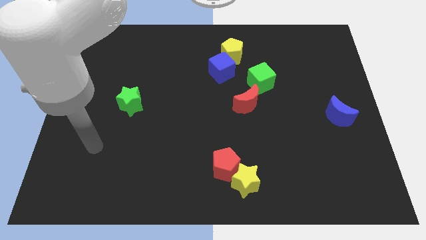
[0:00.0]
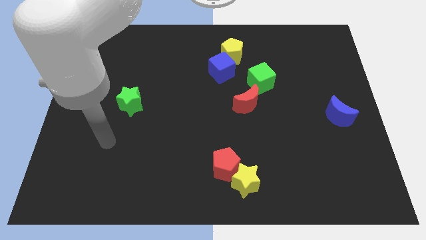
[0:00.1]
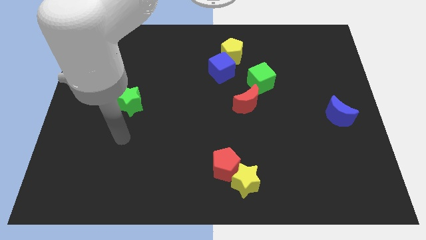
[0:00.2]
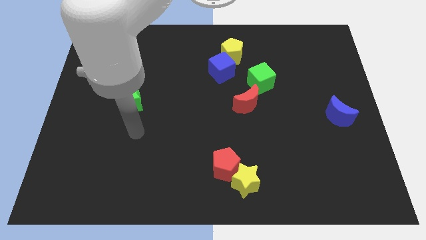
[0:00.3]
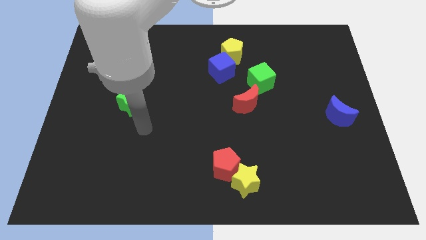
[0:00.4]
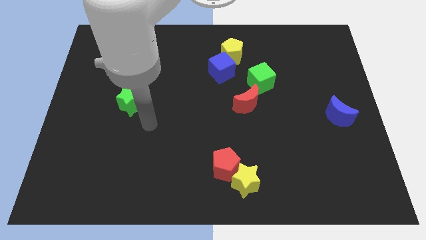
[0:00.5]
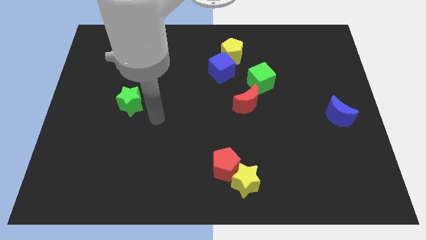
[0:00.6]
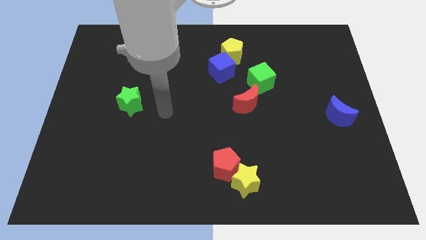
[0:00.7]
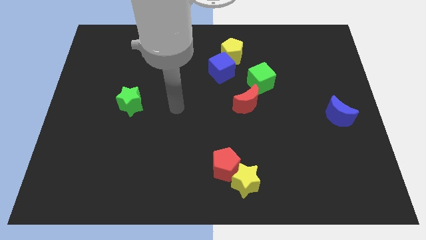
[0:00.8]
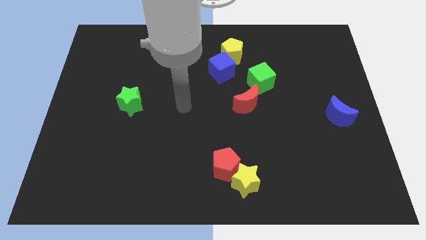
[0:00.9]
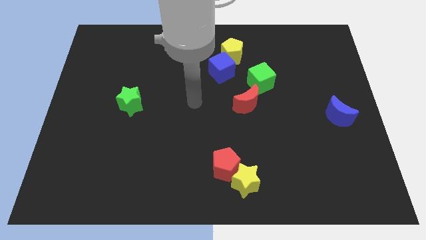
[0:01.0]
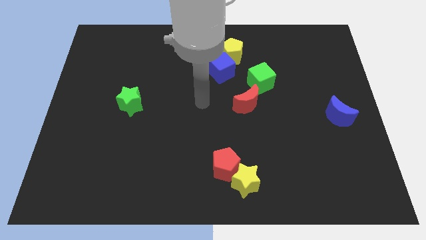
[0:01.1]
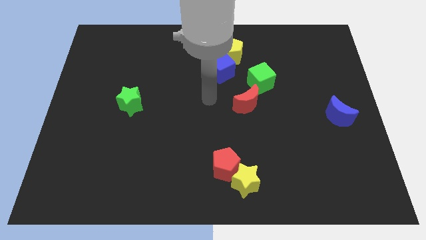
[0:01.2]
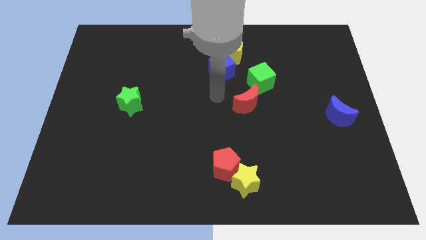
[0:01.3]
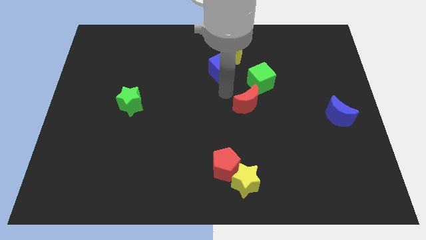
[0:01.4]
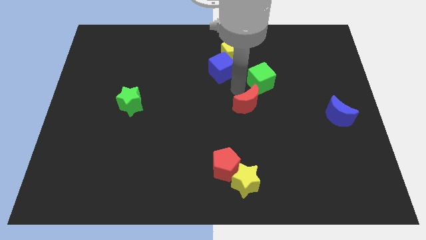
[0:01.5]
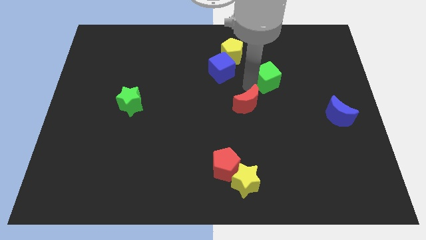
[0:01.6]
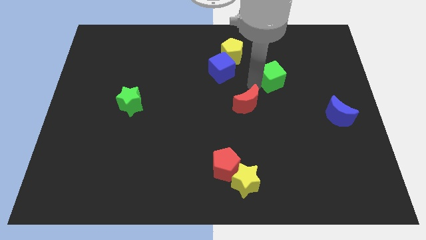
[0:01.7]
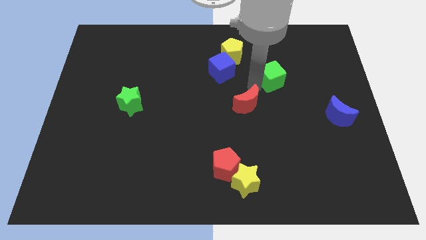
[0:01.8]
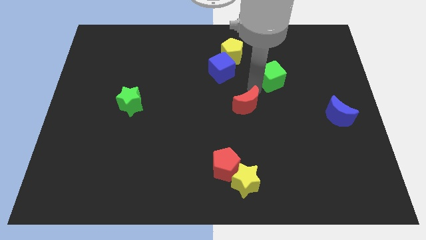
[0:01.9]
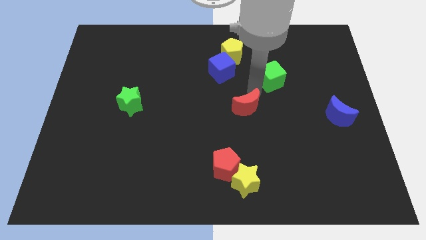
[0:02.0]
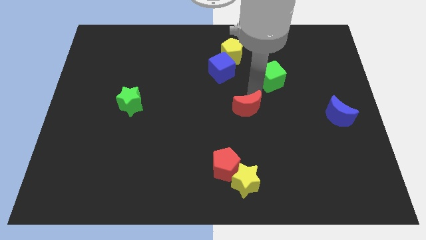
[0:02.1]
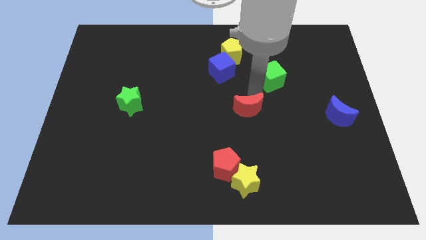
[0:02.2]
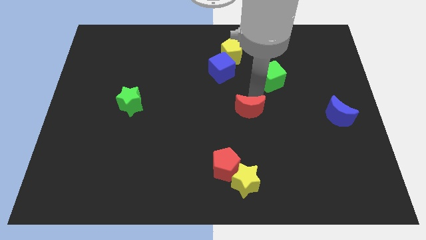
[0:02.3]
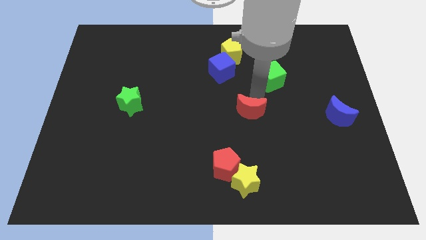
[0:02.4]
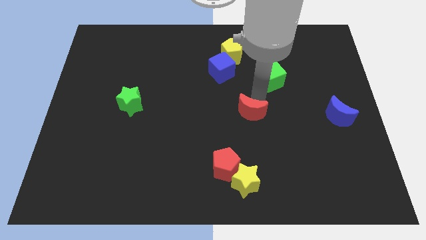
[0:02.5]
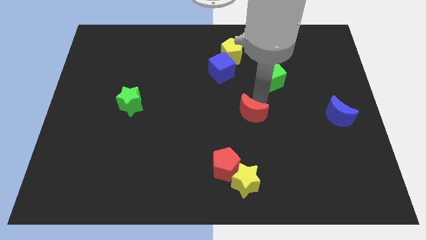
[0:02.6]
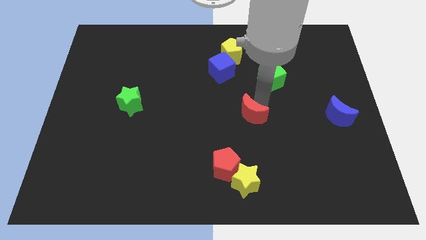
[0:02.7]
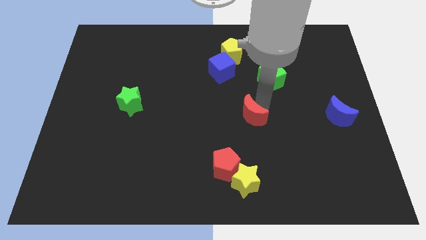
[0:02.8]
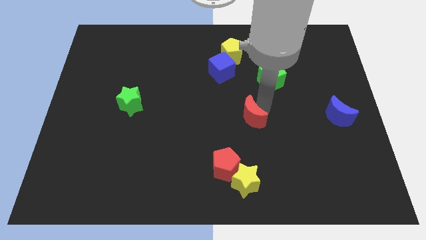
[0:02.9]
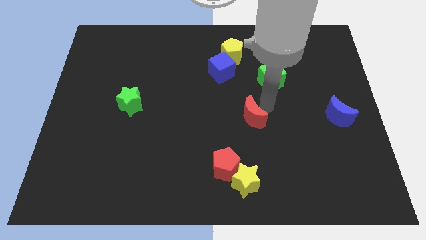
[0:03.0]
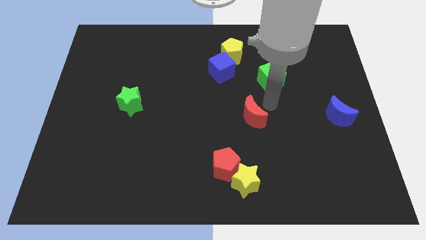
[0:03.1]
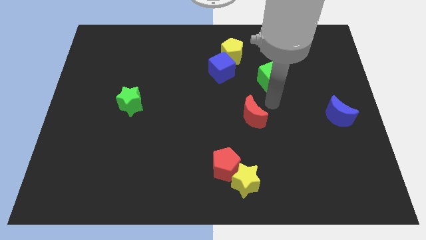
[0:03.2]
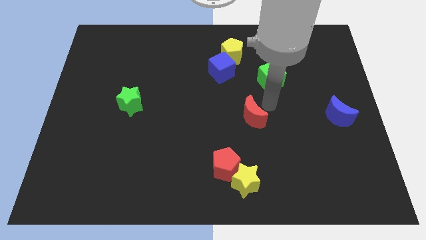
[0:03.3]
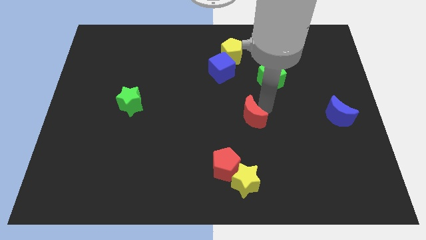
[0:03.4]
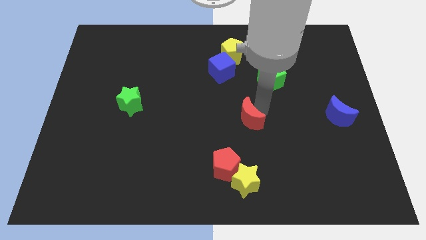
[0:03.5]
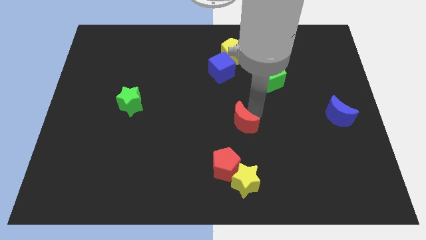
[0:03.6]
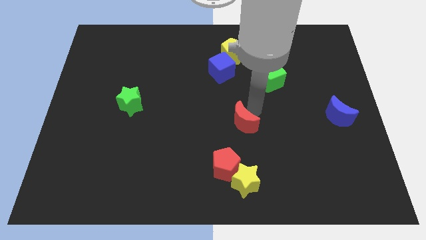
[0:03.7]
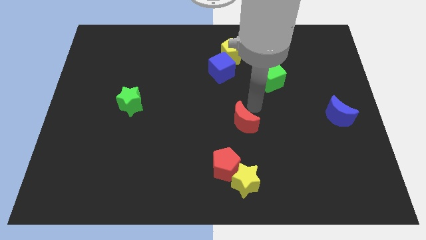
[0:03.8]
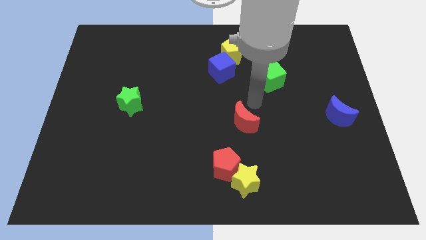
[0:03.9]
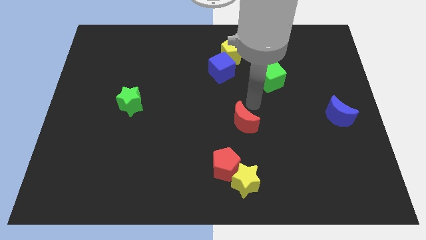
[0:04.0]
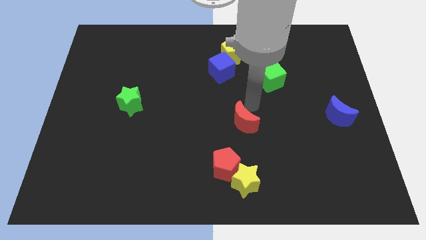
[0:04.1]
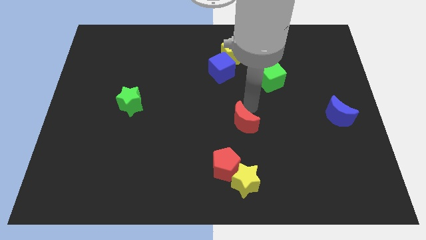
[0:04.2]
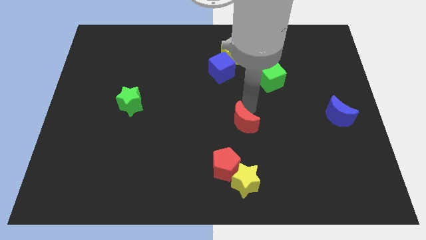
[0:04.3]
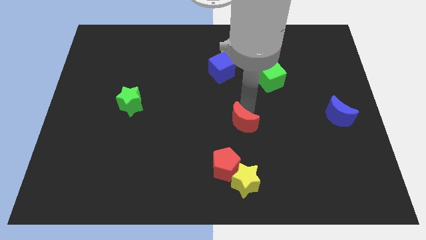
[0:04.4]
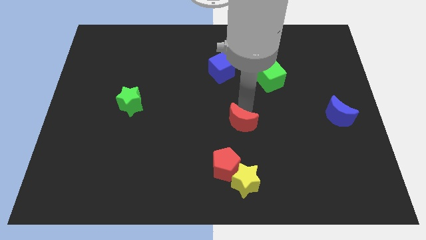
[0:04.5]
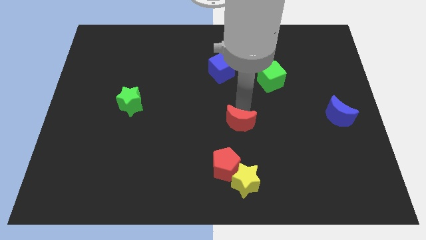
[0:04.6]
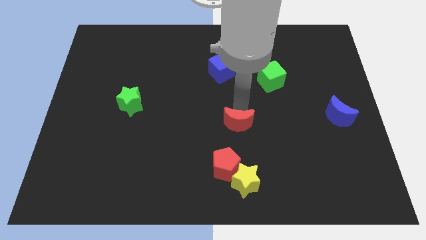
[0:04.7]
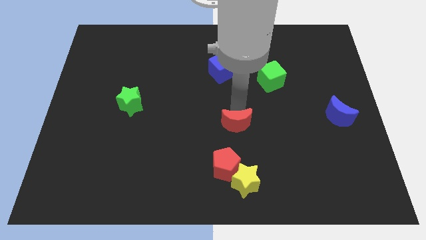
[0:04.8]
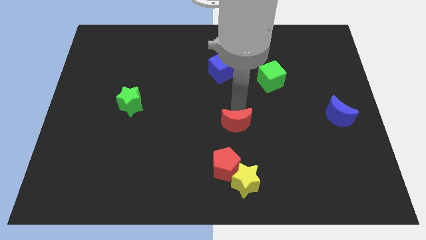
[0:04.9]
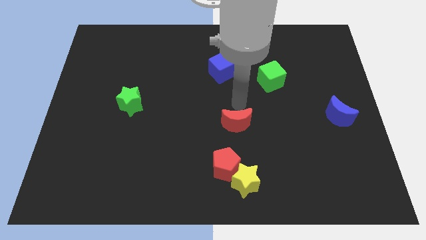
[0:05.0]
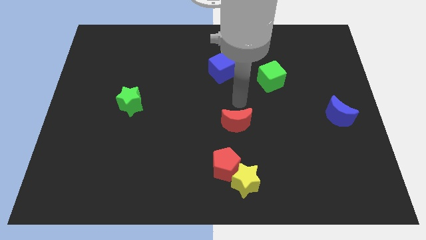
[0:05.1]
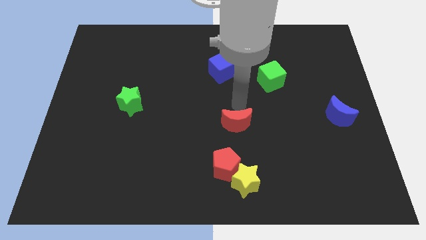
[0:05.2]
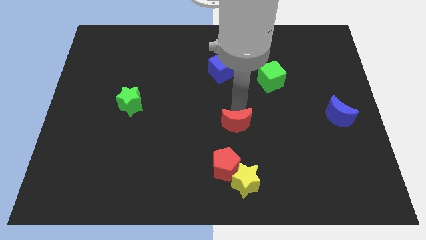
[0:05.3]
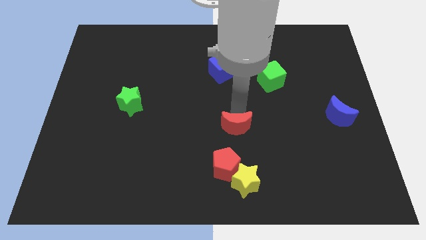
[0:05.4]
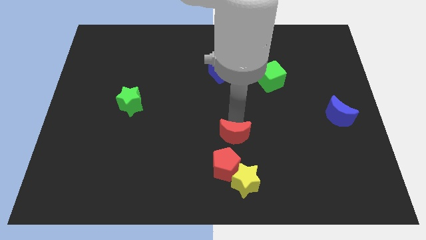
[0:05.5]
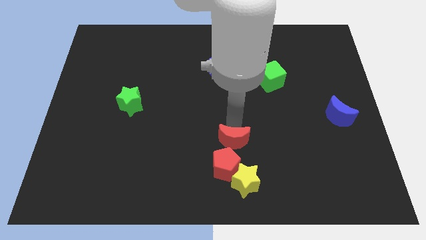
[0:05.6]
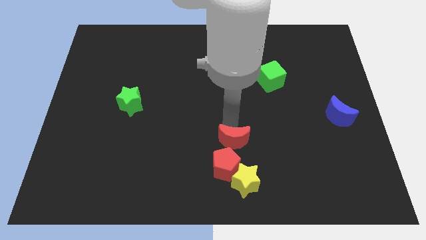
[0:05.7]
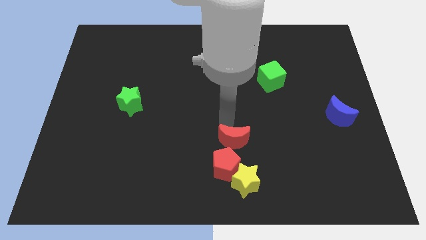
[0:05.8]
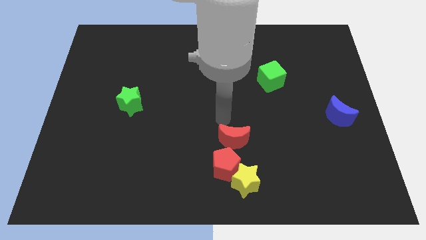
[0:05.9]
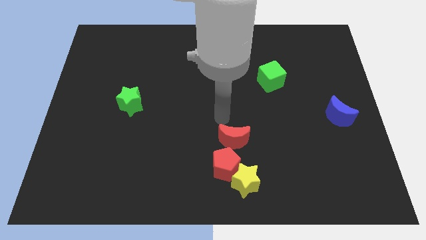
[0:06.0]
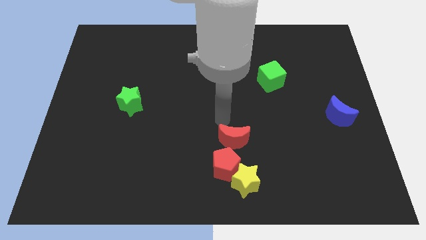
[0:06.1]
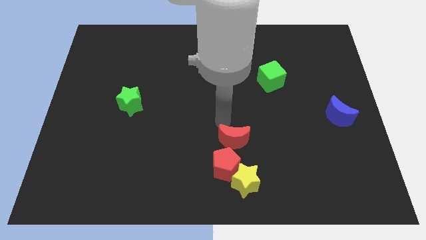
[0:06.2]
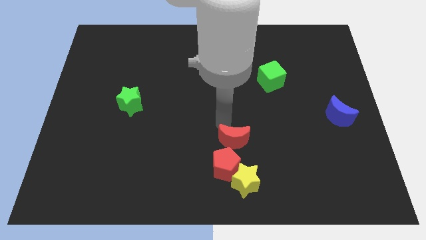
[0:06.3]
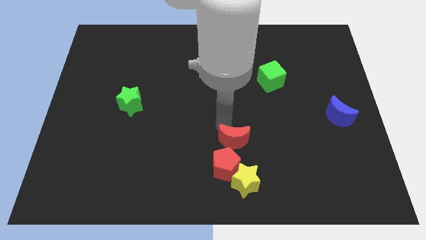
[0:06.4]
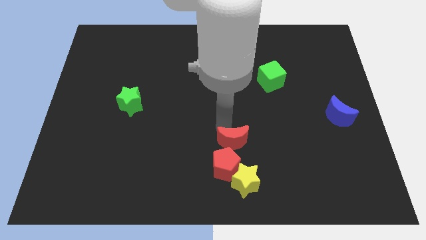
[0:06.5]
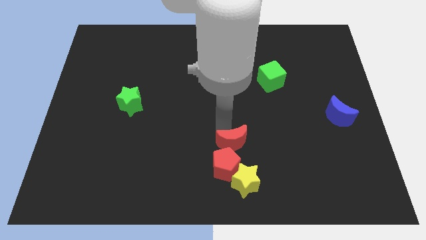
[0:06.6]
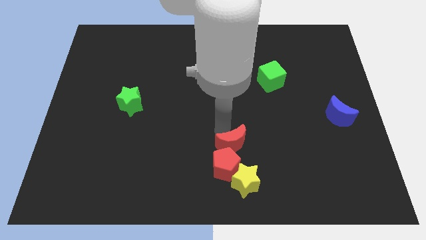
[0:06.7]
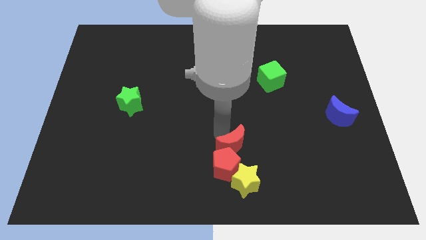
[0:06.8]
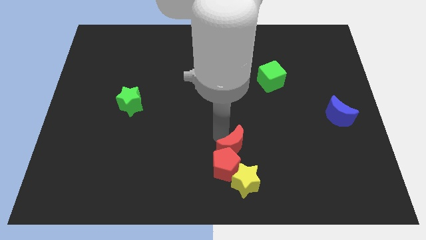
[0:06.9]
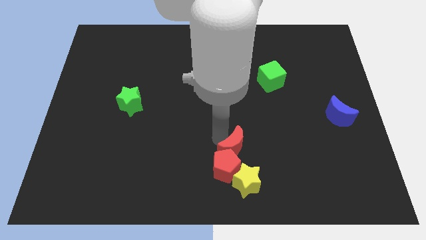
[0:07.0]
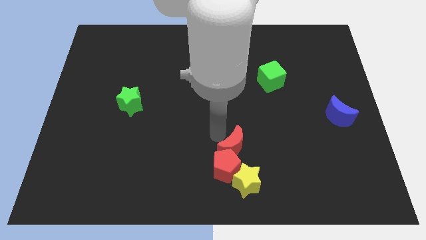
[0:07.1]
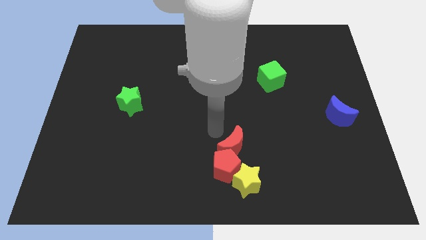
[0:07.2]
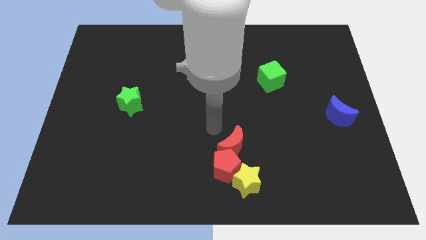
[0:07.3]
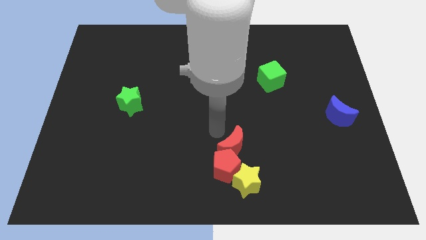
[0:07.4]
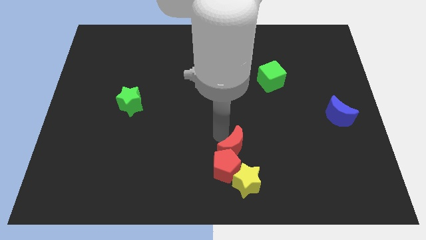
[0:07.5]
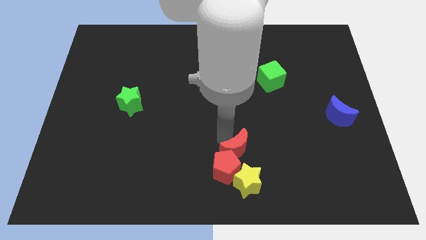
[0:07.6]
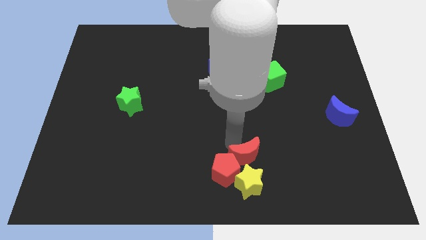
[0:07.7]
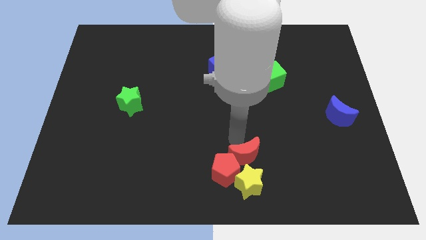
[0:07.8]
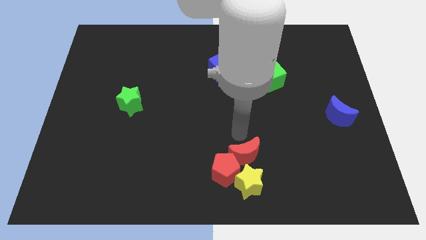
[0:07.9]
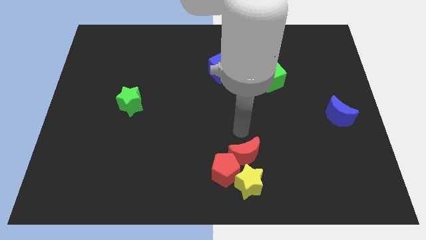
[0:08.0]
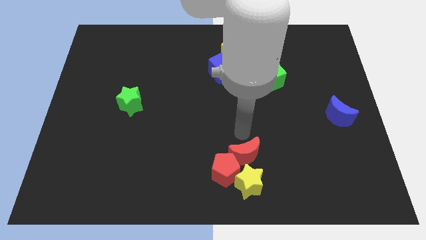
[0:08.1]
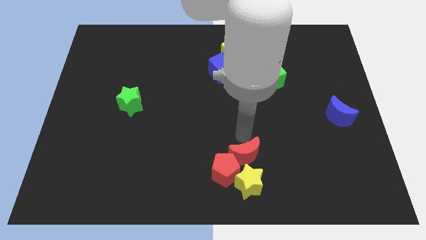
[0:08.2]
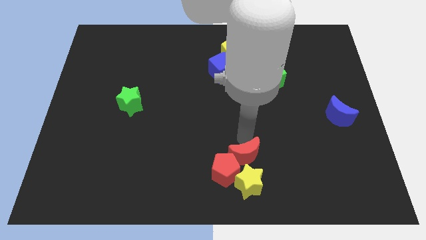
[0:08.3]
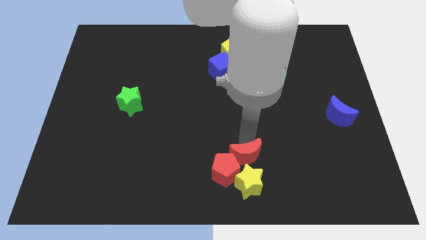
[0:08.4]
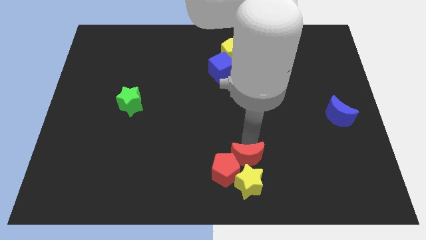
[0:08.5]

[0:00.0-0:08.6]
push the red moon towards the yellow star
